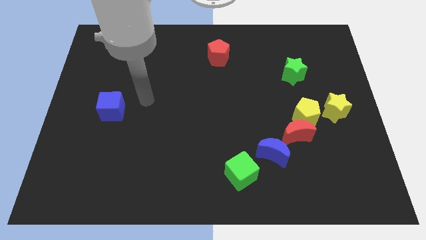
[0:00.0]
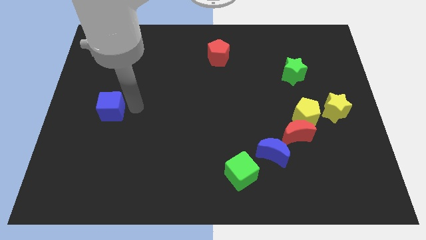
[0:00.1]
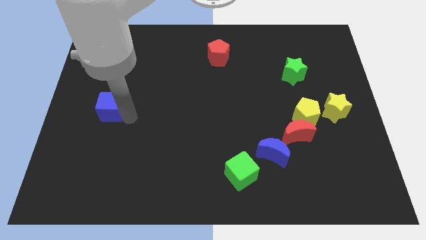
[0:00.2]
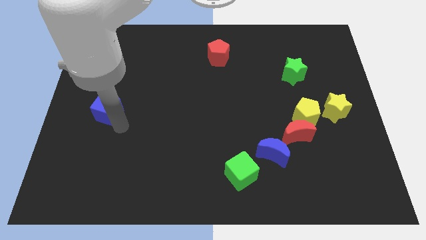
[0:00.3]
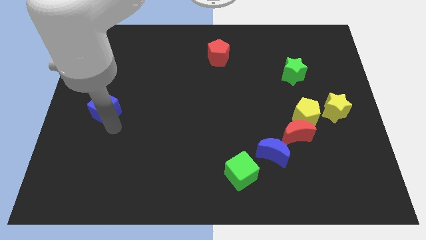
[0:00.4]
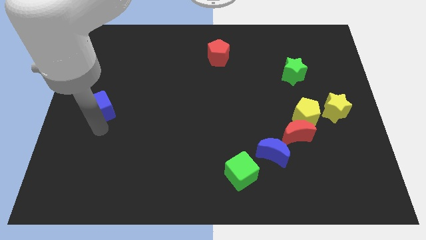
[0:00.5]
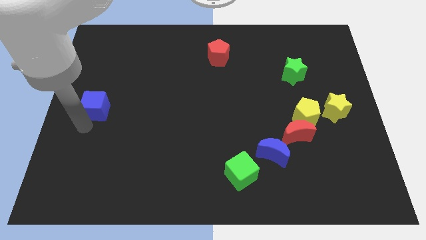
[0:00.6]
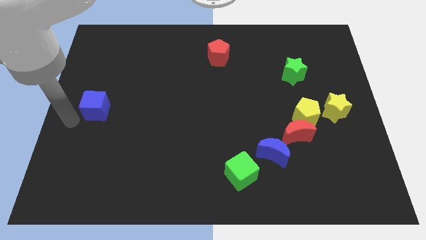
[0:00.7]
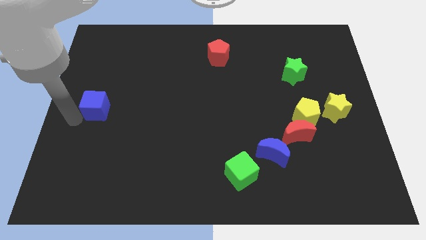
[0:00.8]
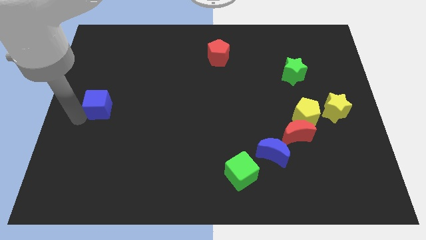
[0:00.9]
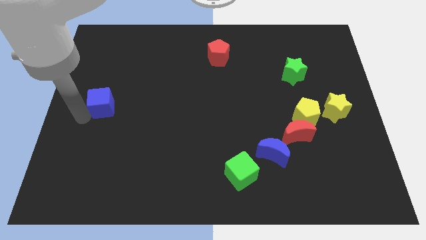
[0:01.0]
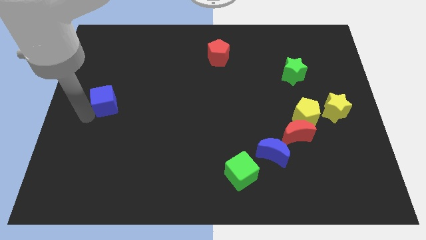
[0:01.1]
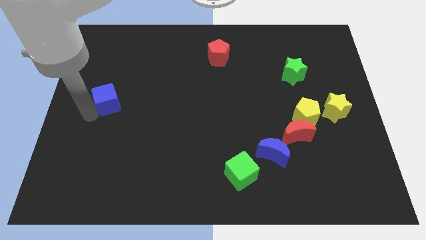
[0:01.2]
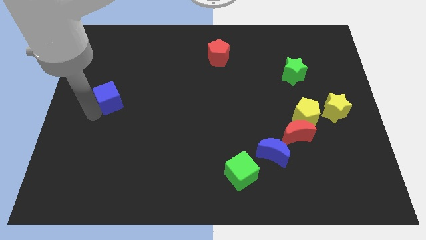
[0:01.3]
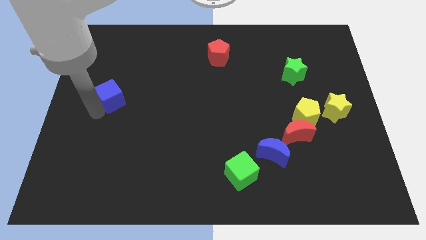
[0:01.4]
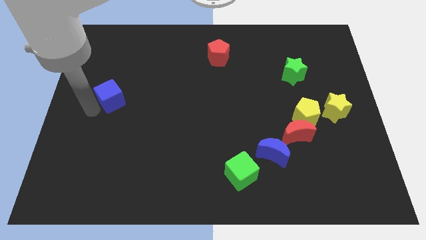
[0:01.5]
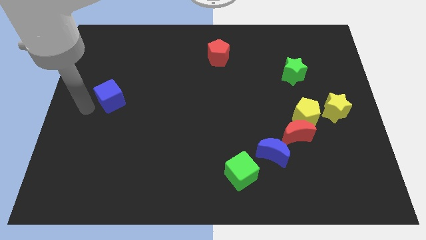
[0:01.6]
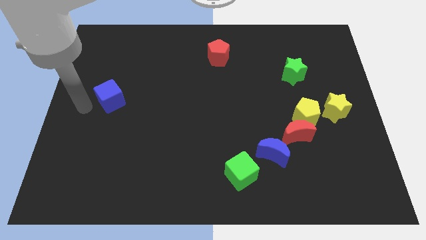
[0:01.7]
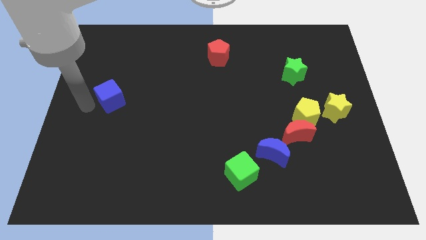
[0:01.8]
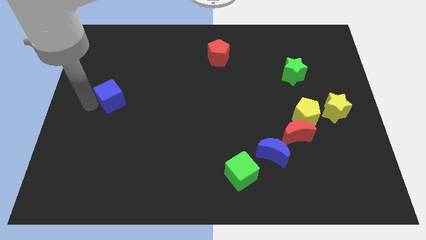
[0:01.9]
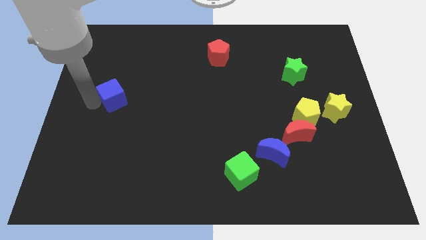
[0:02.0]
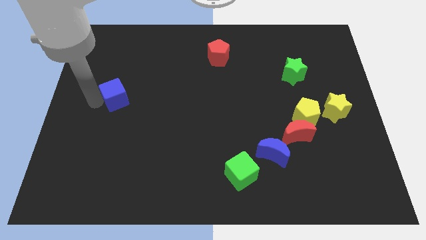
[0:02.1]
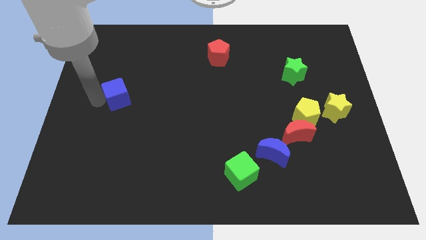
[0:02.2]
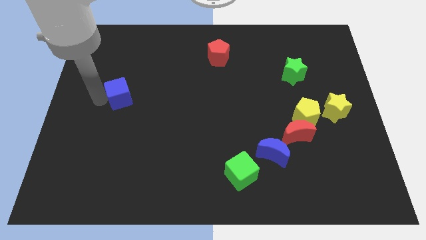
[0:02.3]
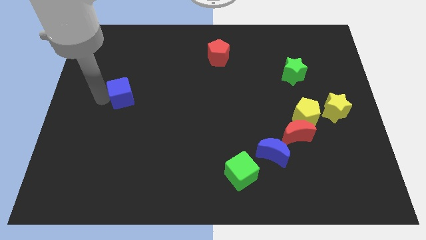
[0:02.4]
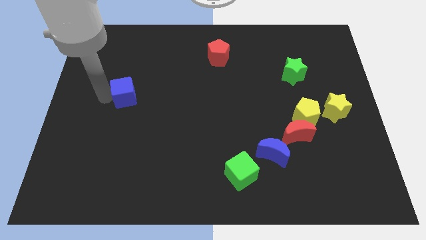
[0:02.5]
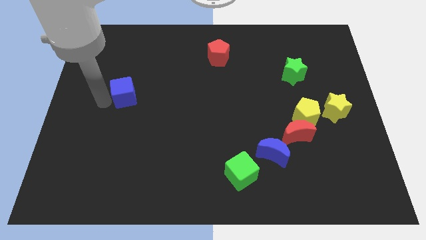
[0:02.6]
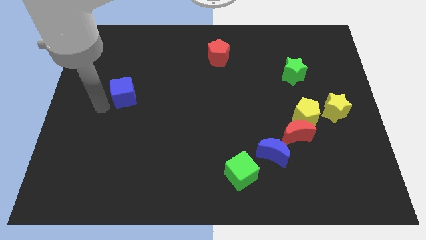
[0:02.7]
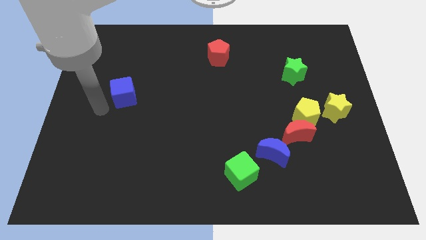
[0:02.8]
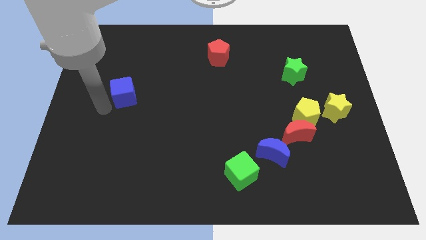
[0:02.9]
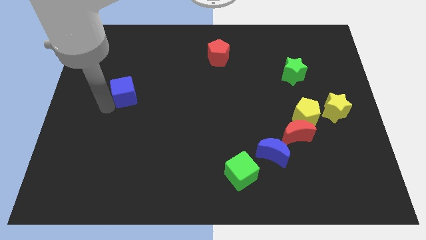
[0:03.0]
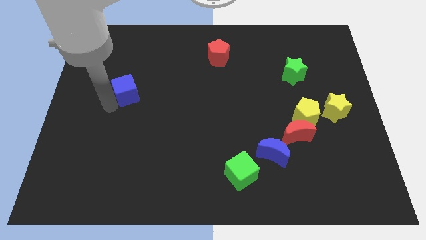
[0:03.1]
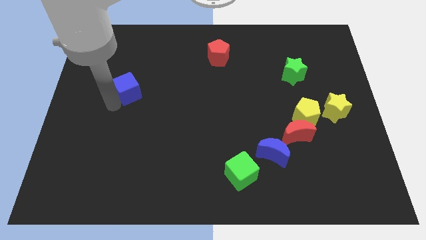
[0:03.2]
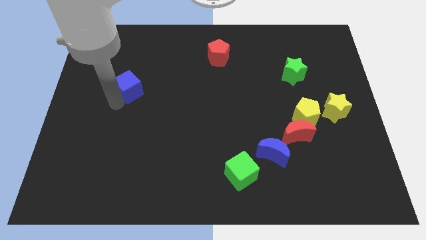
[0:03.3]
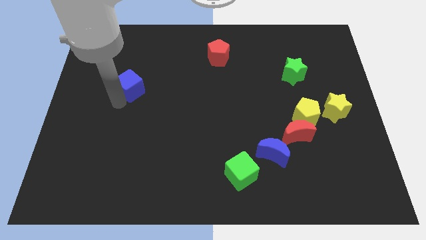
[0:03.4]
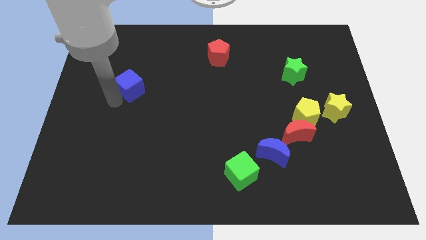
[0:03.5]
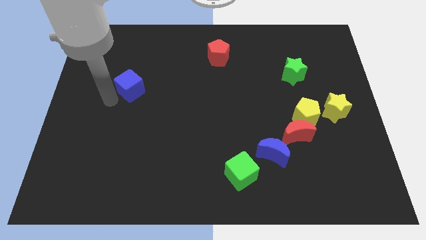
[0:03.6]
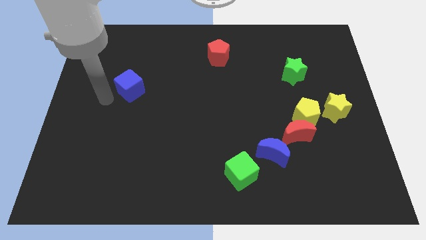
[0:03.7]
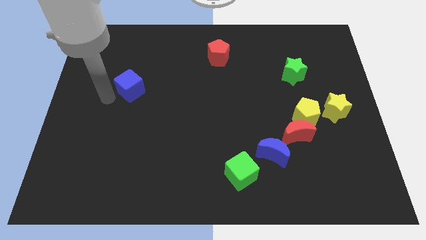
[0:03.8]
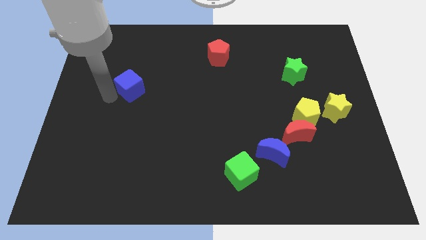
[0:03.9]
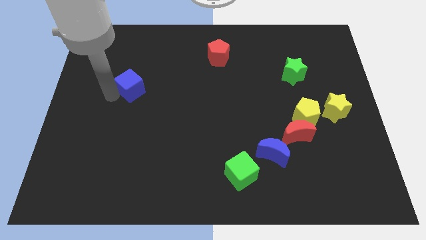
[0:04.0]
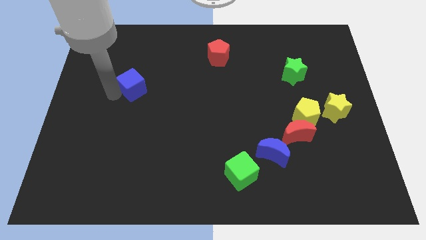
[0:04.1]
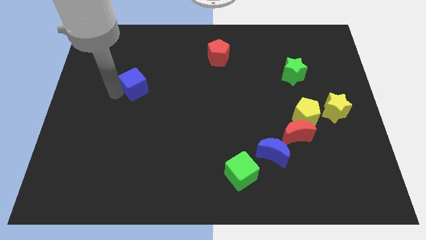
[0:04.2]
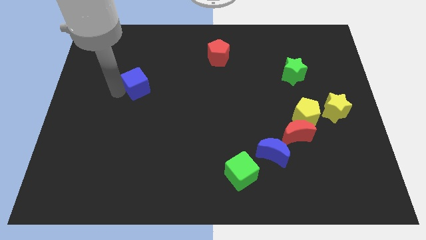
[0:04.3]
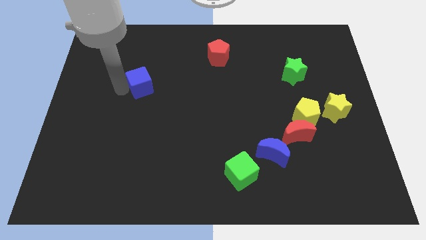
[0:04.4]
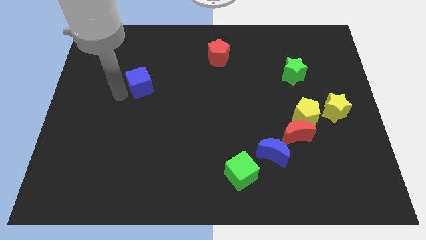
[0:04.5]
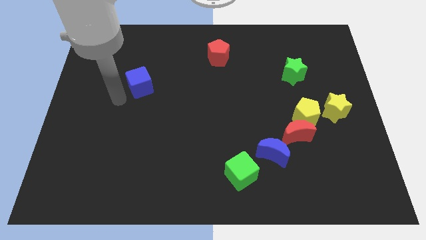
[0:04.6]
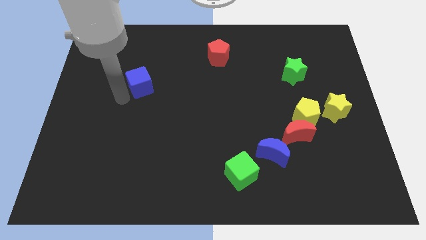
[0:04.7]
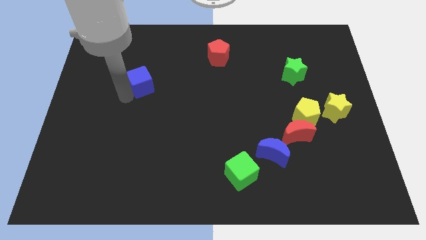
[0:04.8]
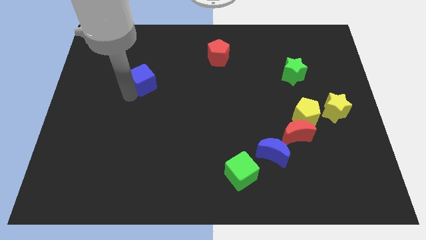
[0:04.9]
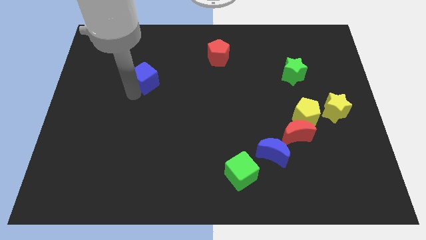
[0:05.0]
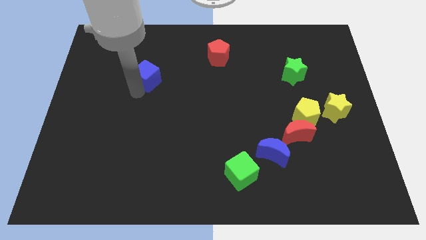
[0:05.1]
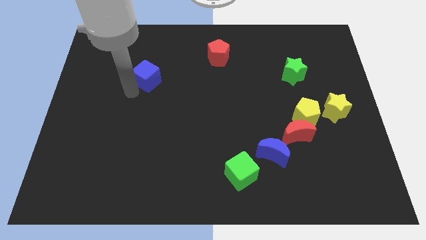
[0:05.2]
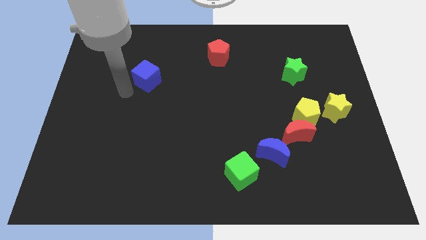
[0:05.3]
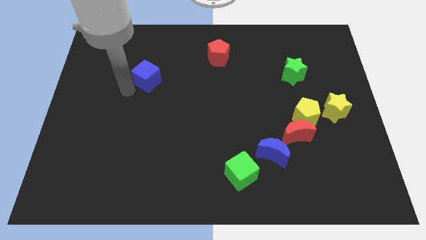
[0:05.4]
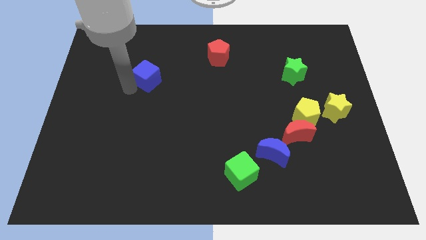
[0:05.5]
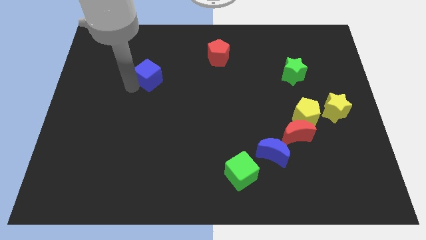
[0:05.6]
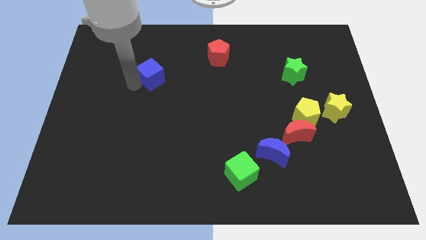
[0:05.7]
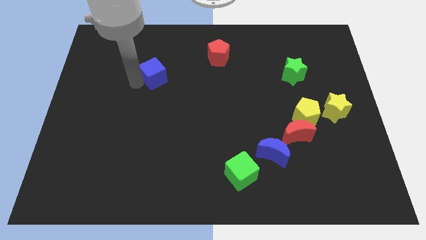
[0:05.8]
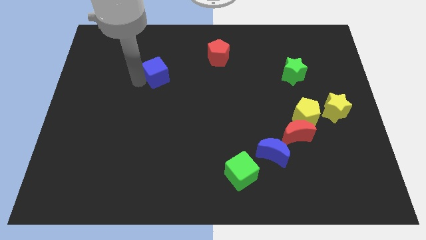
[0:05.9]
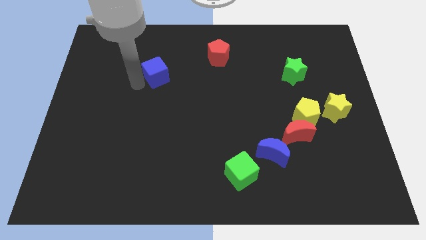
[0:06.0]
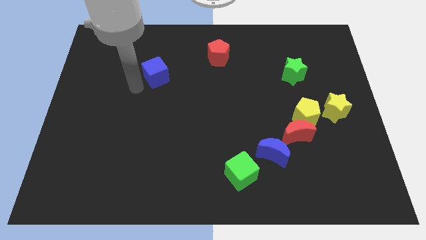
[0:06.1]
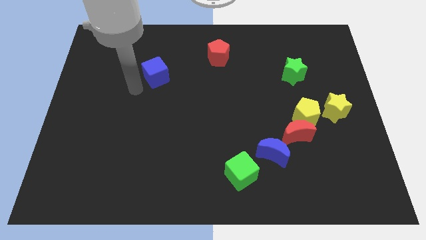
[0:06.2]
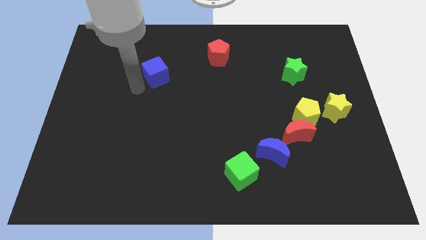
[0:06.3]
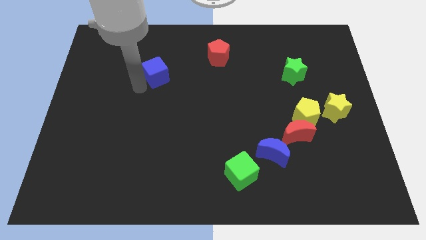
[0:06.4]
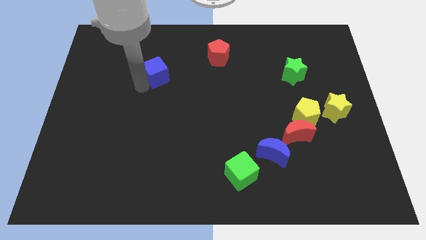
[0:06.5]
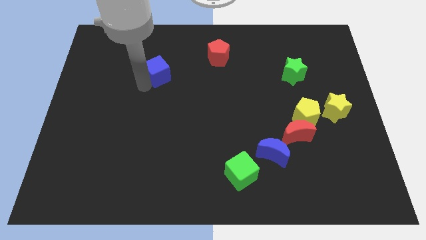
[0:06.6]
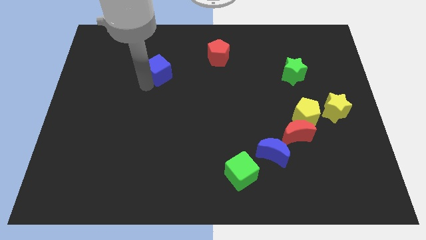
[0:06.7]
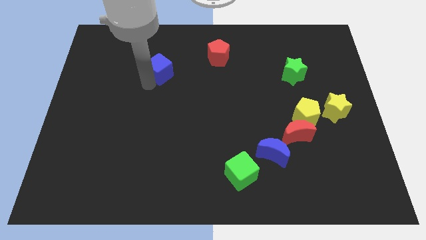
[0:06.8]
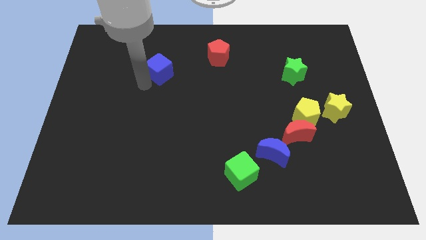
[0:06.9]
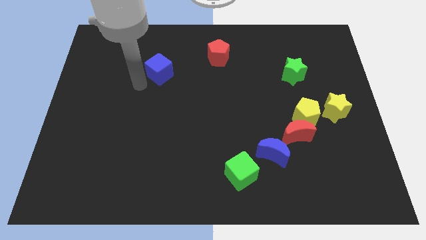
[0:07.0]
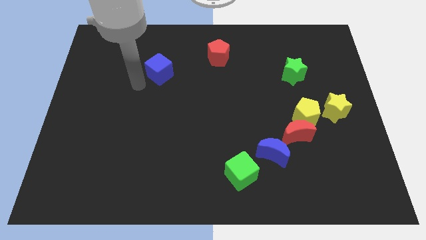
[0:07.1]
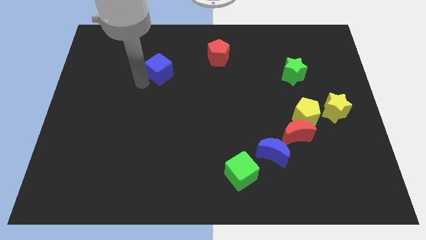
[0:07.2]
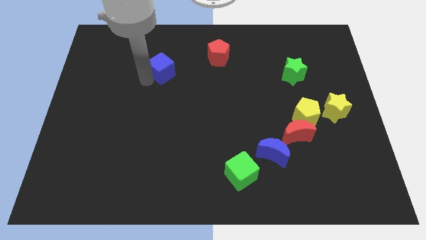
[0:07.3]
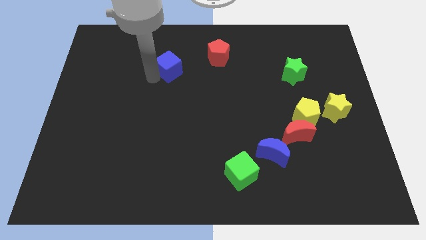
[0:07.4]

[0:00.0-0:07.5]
put the blue cube just left of the red pentagon
